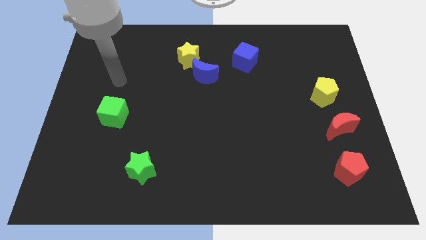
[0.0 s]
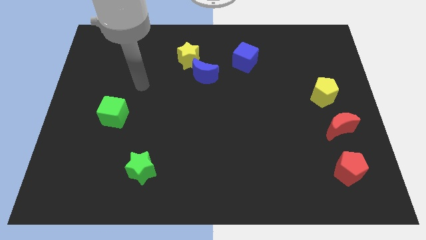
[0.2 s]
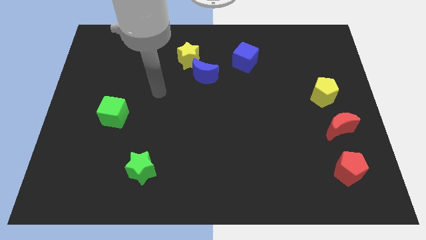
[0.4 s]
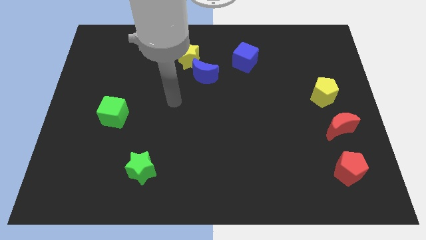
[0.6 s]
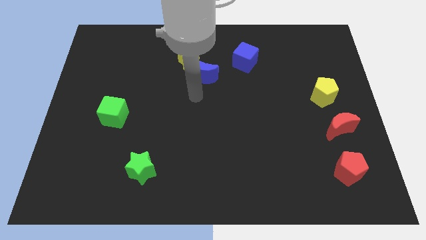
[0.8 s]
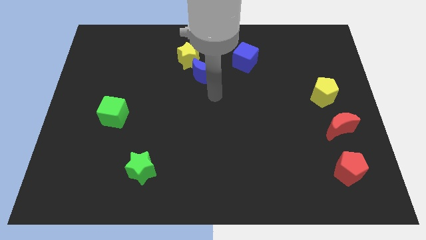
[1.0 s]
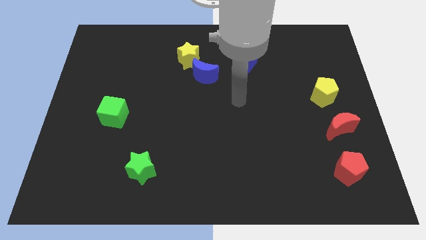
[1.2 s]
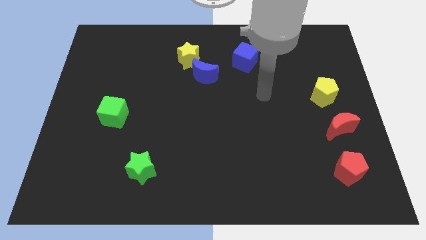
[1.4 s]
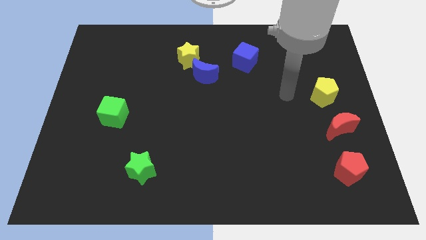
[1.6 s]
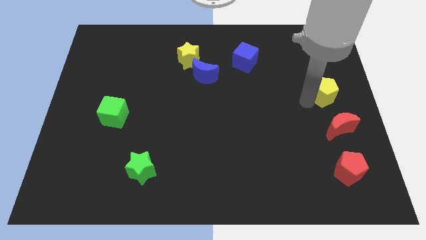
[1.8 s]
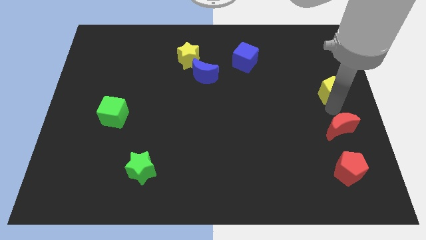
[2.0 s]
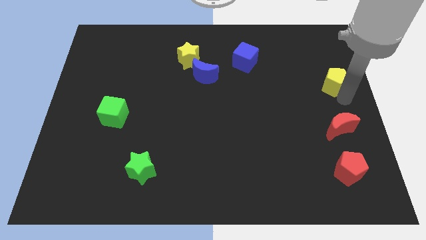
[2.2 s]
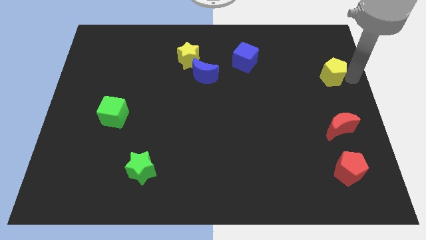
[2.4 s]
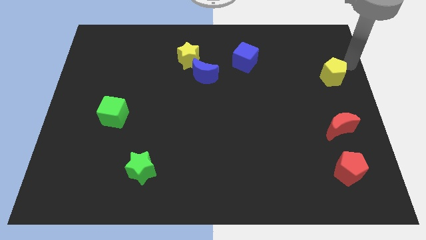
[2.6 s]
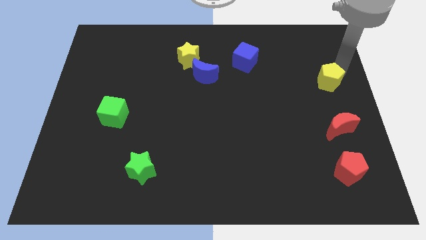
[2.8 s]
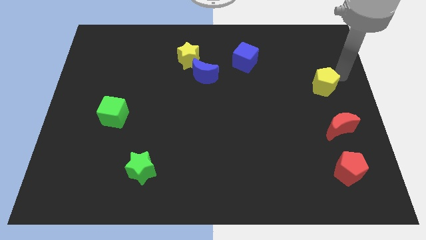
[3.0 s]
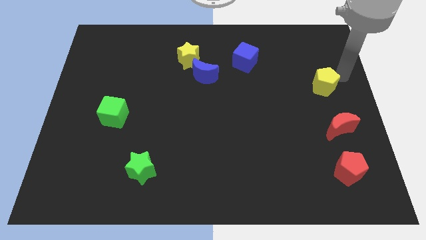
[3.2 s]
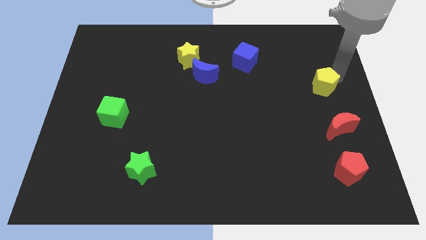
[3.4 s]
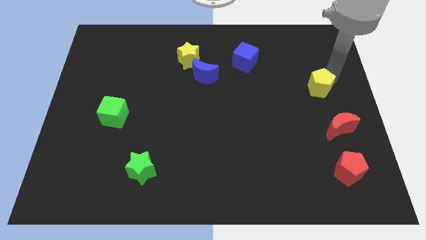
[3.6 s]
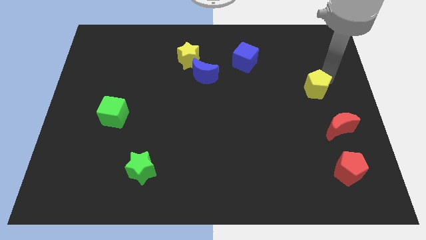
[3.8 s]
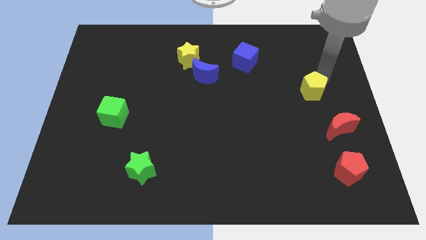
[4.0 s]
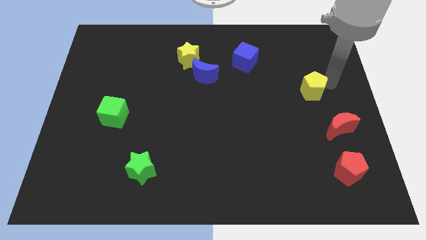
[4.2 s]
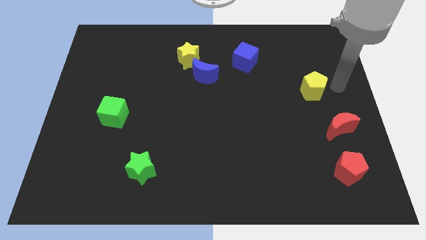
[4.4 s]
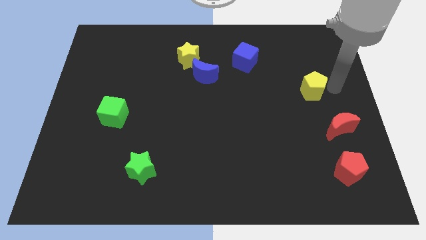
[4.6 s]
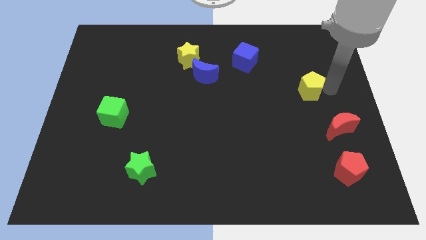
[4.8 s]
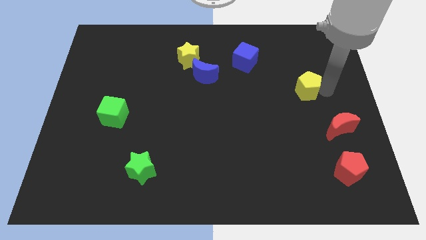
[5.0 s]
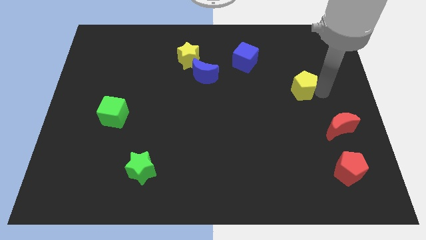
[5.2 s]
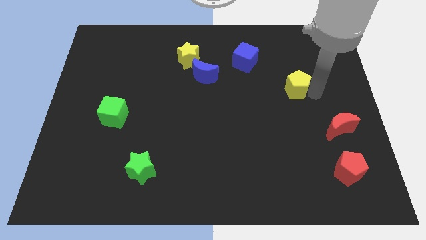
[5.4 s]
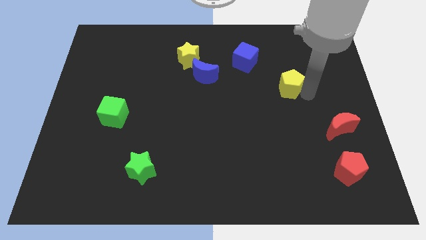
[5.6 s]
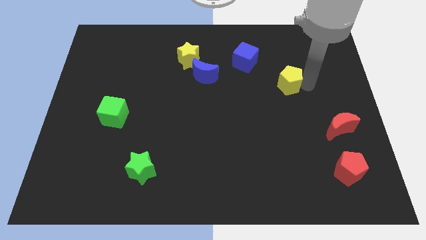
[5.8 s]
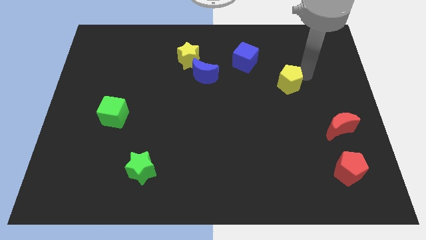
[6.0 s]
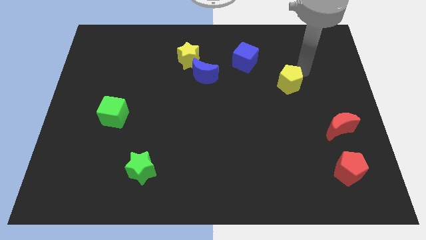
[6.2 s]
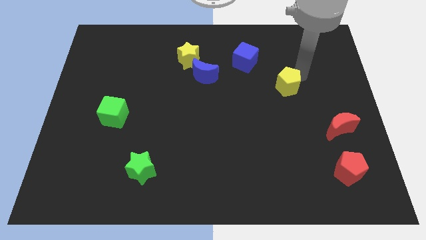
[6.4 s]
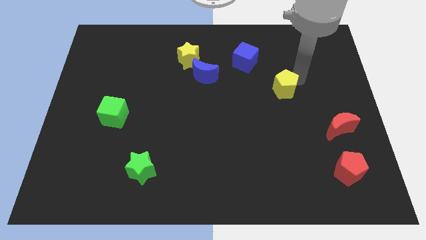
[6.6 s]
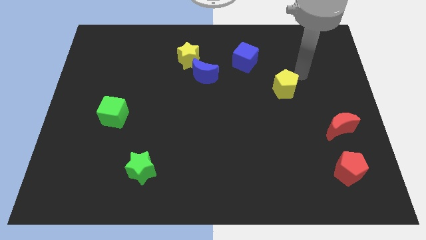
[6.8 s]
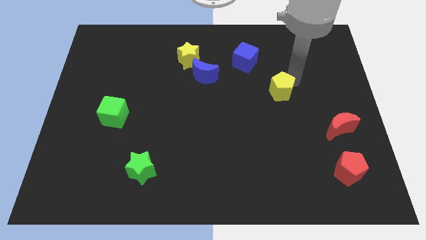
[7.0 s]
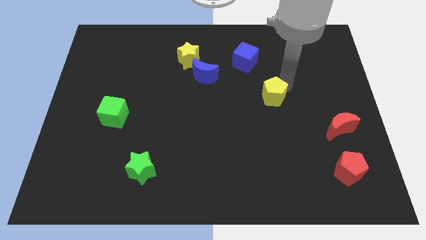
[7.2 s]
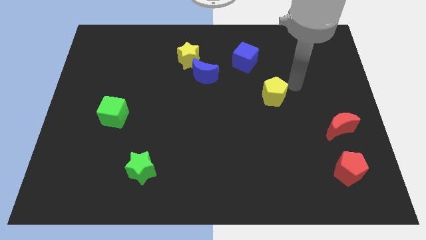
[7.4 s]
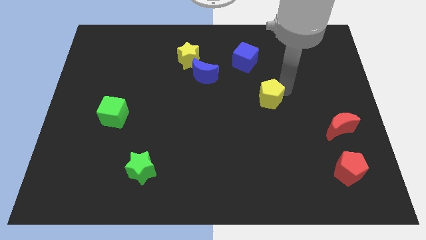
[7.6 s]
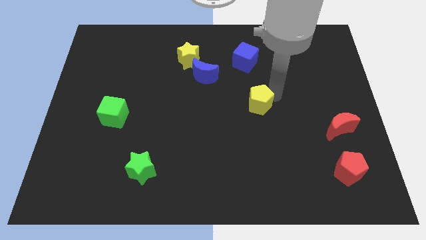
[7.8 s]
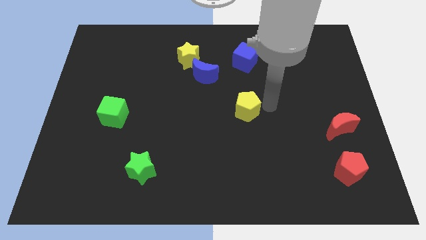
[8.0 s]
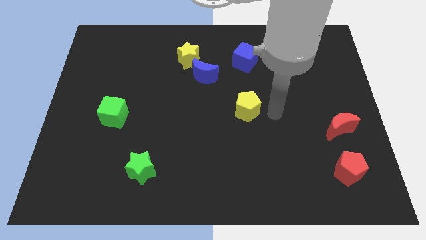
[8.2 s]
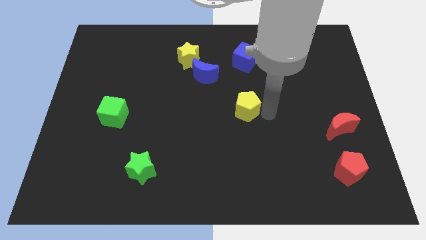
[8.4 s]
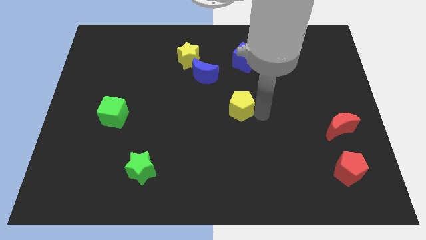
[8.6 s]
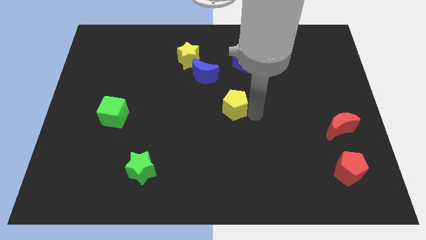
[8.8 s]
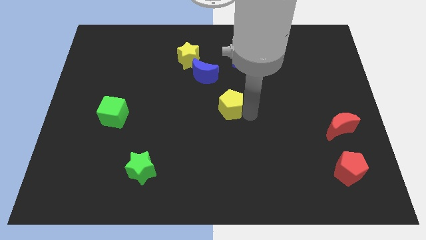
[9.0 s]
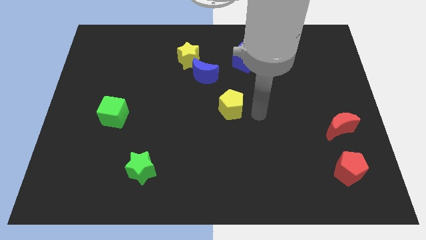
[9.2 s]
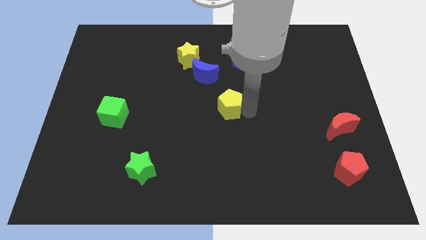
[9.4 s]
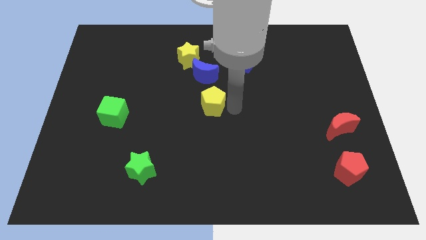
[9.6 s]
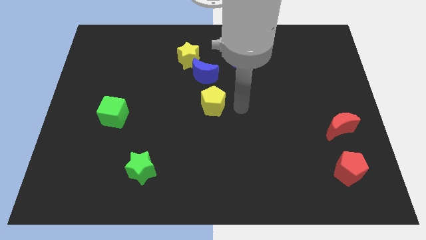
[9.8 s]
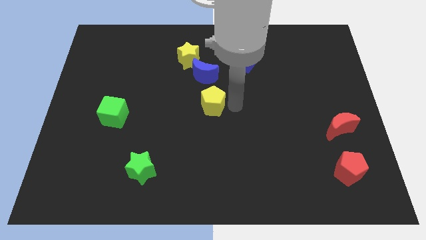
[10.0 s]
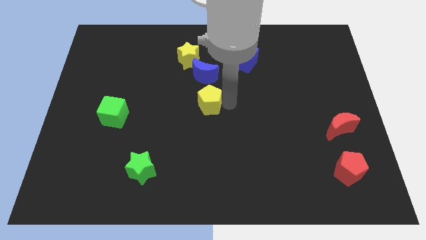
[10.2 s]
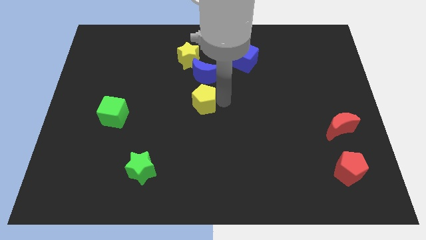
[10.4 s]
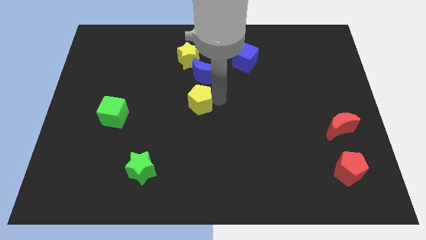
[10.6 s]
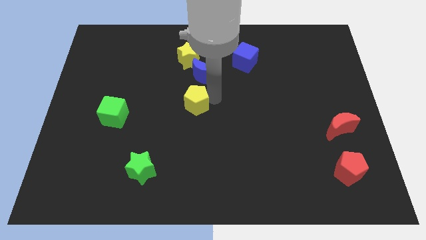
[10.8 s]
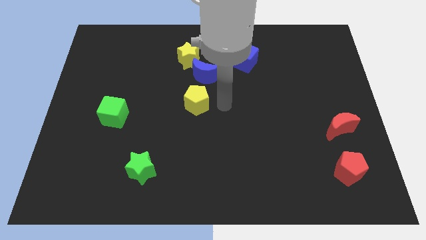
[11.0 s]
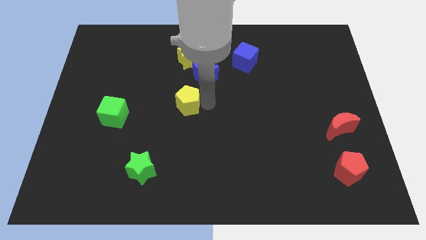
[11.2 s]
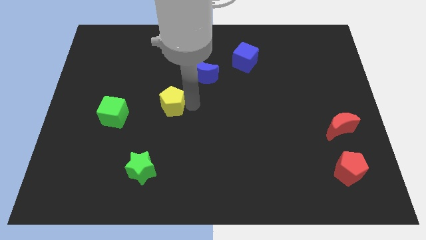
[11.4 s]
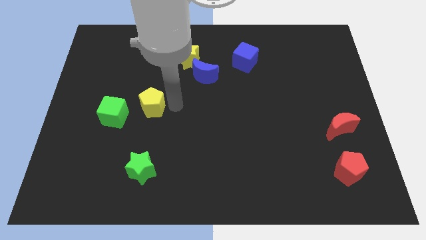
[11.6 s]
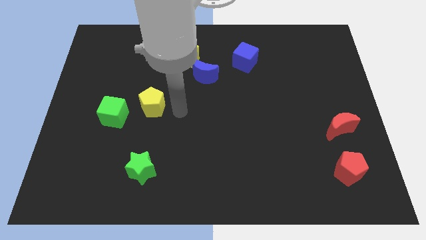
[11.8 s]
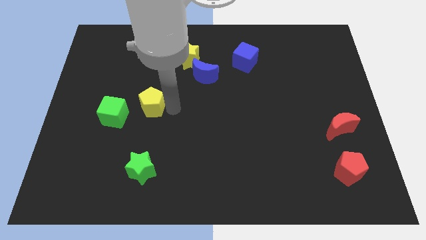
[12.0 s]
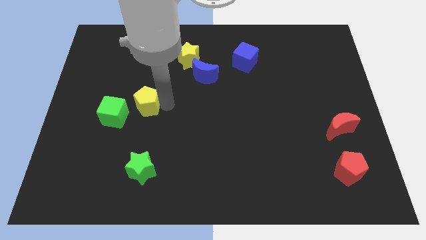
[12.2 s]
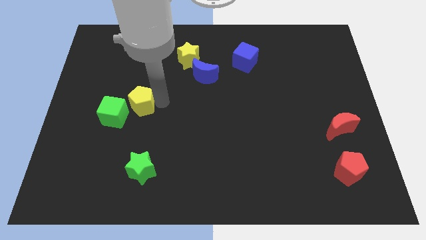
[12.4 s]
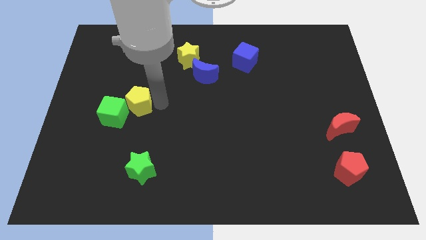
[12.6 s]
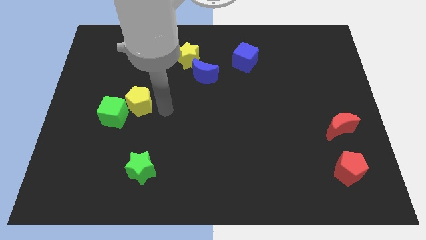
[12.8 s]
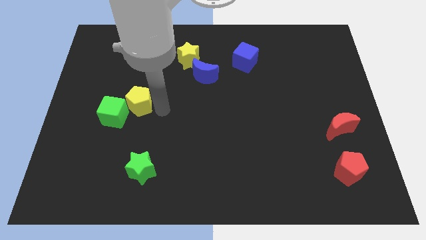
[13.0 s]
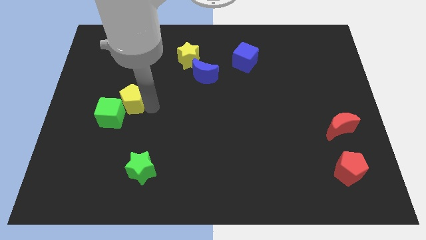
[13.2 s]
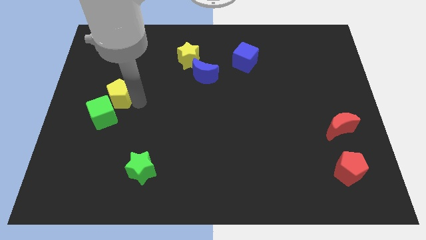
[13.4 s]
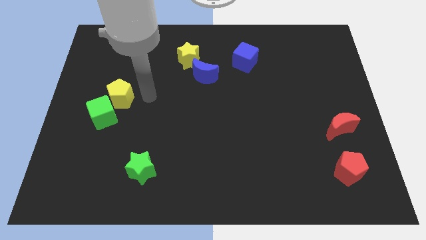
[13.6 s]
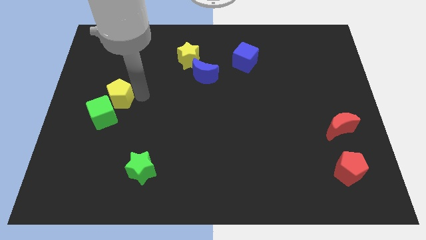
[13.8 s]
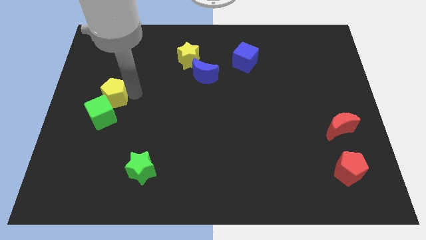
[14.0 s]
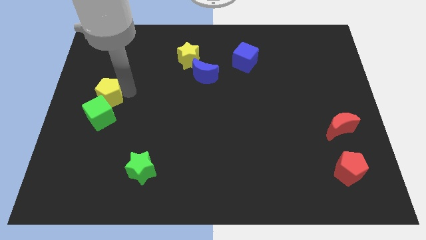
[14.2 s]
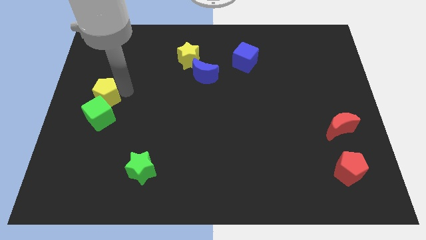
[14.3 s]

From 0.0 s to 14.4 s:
push the yellow pentagon to the top left side of the green cube

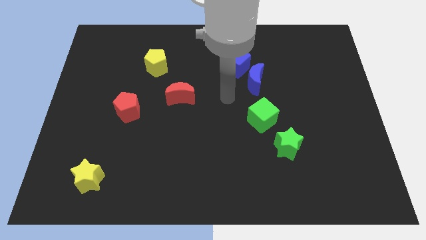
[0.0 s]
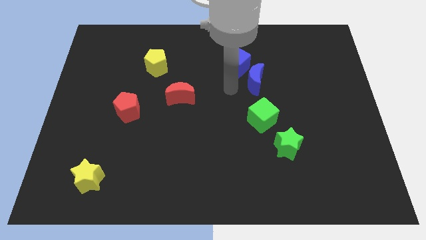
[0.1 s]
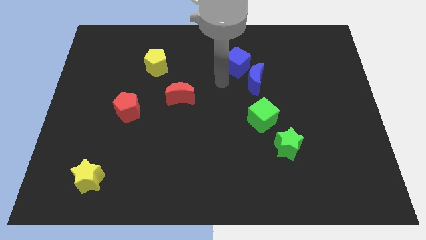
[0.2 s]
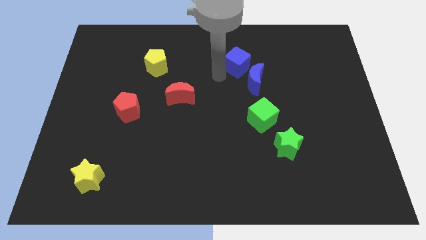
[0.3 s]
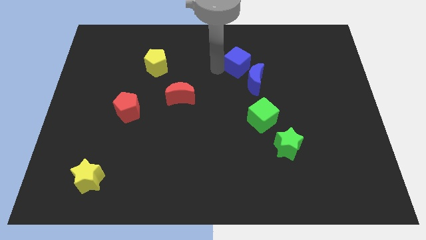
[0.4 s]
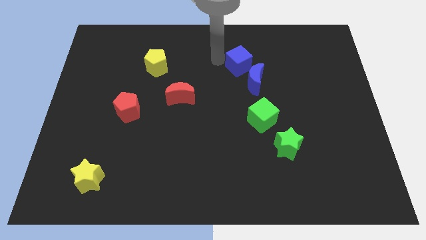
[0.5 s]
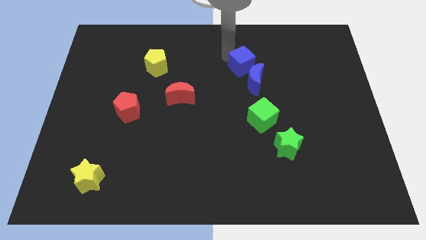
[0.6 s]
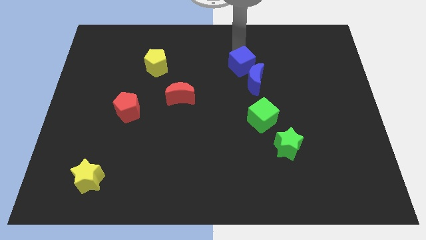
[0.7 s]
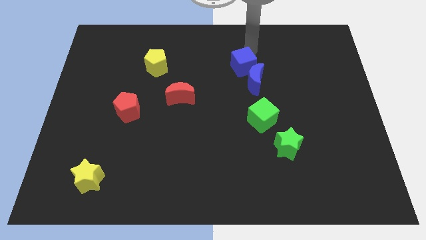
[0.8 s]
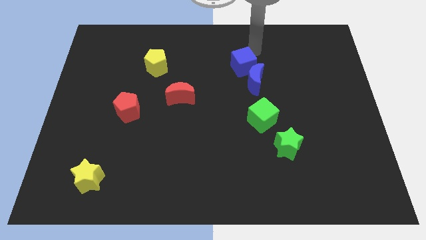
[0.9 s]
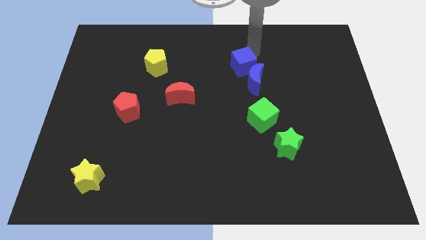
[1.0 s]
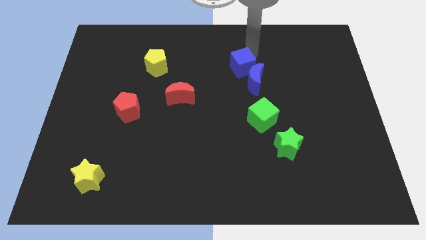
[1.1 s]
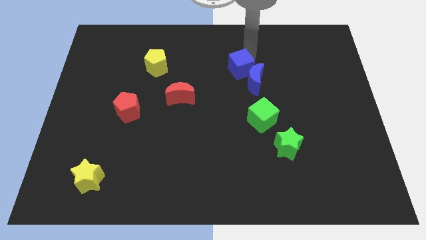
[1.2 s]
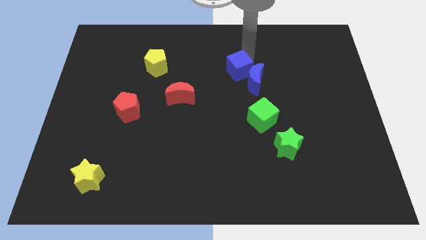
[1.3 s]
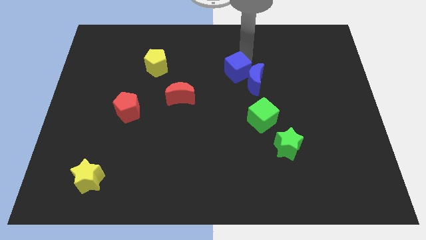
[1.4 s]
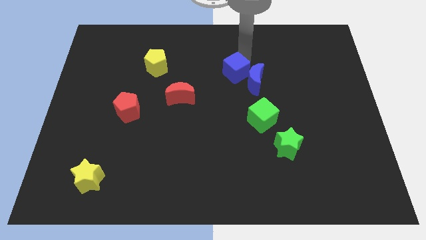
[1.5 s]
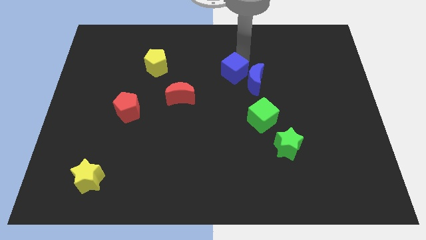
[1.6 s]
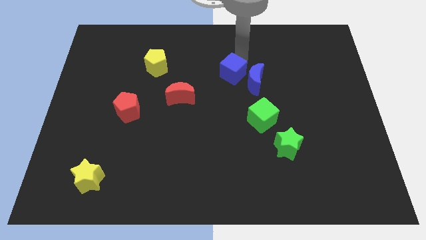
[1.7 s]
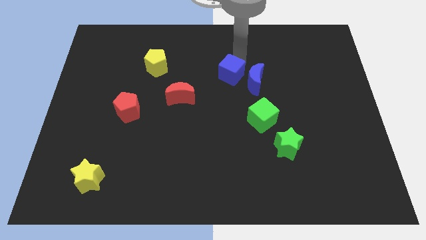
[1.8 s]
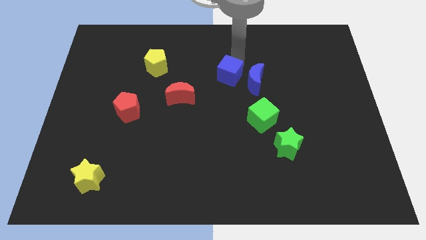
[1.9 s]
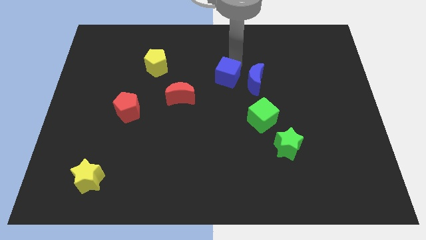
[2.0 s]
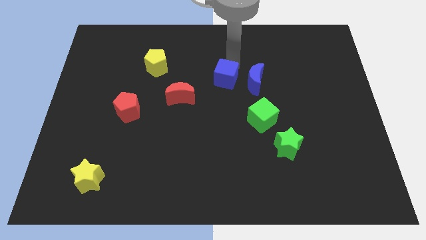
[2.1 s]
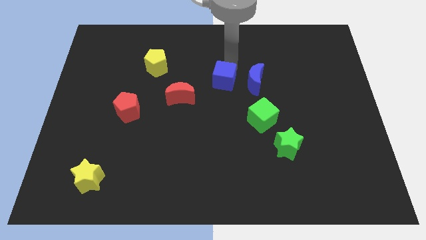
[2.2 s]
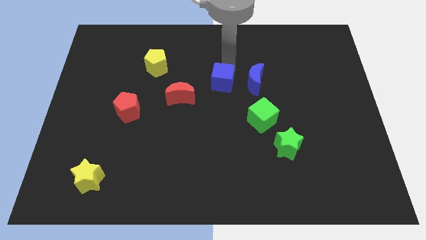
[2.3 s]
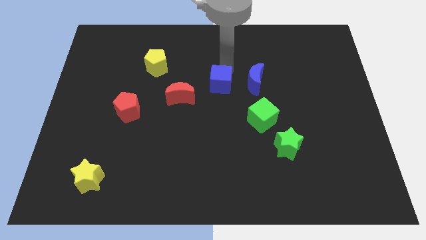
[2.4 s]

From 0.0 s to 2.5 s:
move the blue cube just right of the red moon
